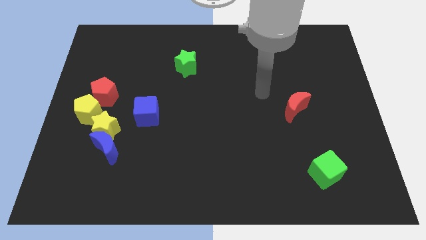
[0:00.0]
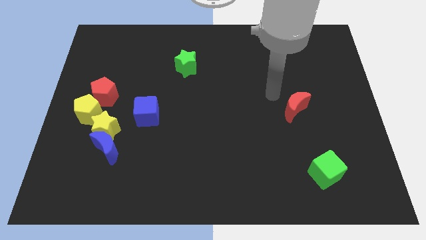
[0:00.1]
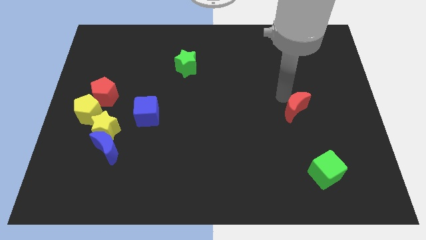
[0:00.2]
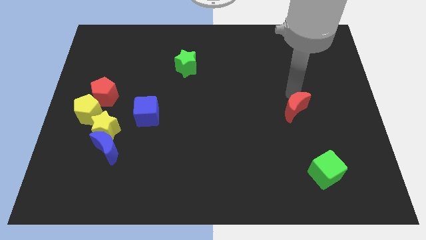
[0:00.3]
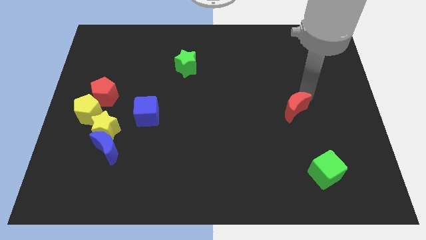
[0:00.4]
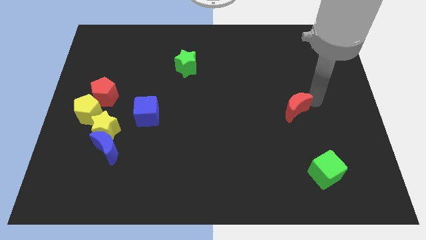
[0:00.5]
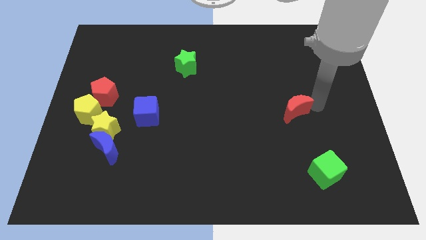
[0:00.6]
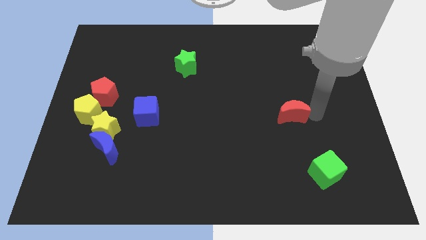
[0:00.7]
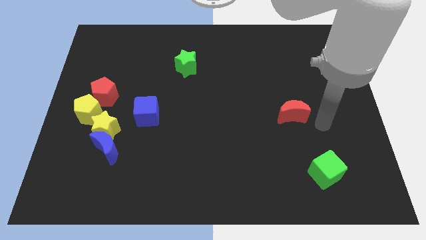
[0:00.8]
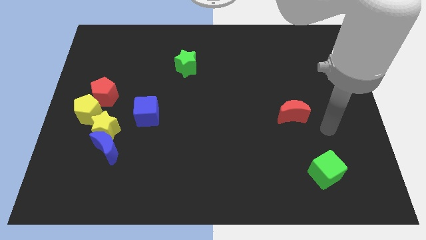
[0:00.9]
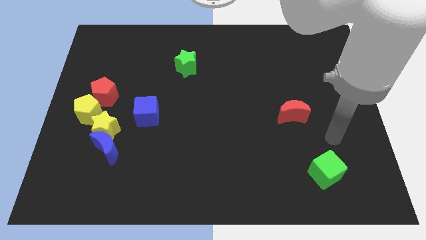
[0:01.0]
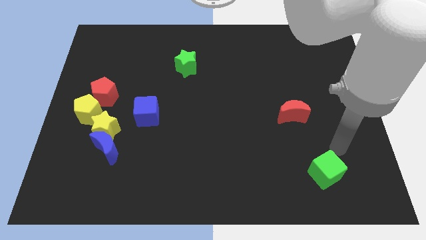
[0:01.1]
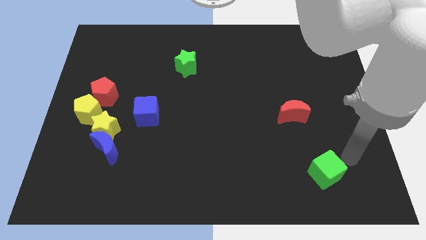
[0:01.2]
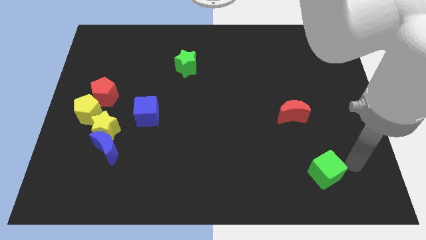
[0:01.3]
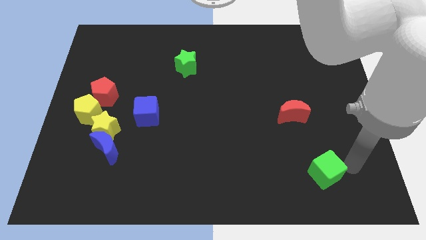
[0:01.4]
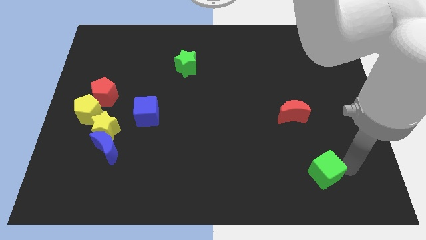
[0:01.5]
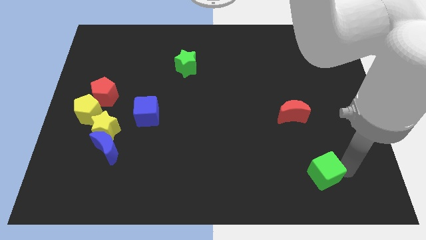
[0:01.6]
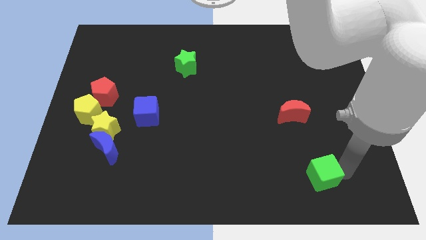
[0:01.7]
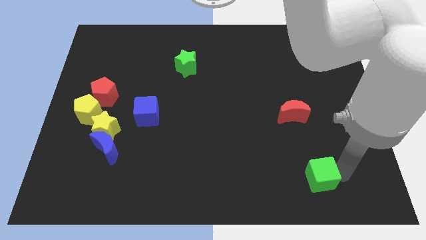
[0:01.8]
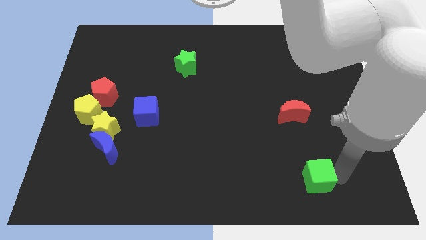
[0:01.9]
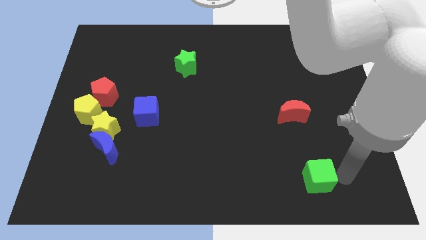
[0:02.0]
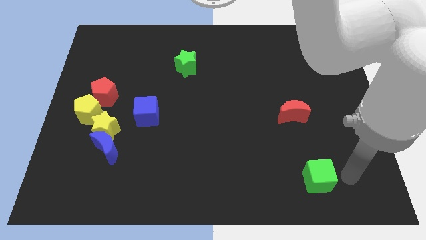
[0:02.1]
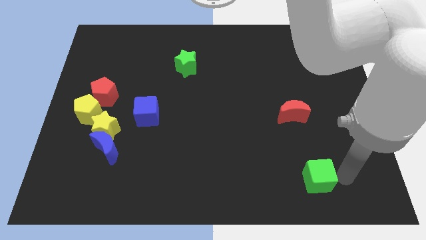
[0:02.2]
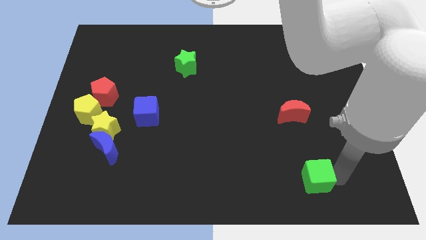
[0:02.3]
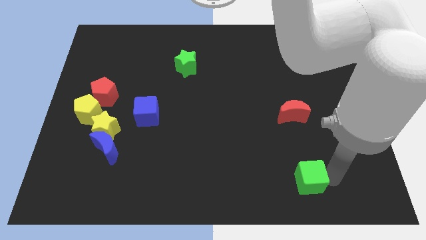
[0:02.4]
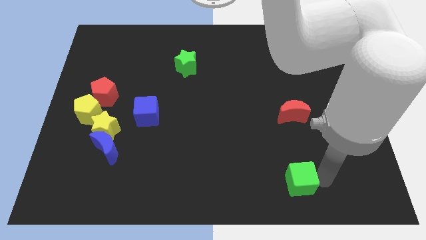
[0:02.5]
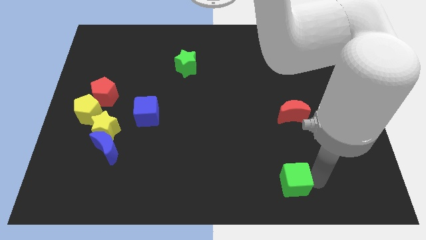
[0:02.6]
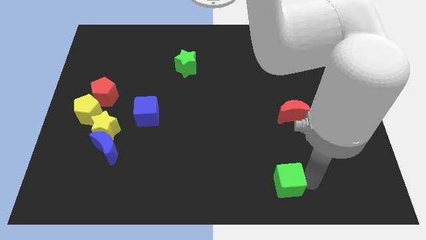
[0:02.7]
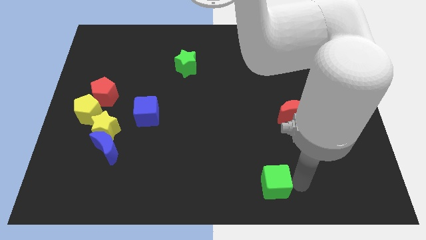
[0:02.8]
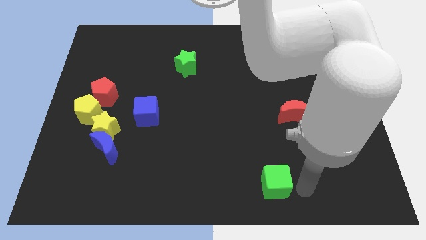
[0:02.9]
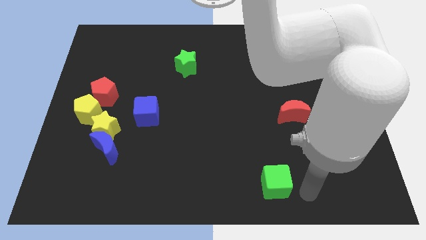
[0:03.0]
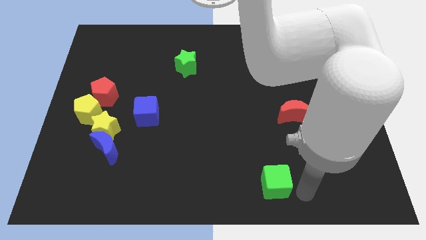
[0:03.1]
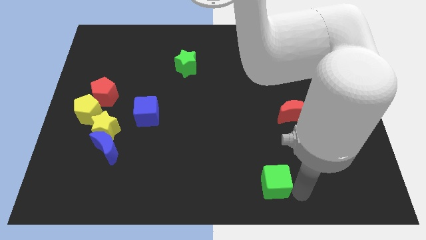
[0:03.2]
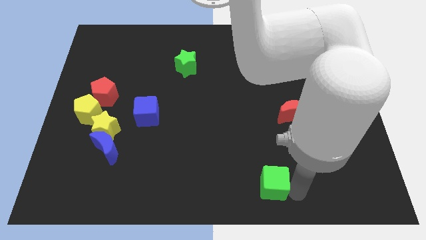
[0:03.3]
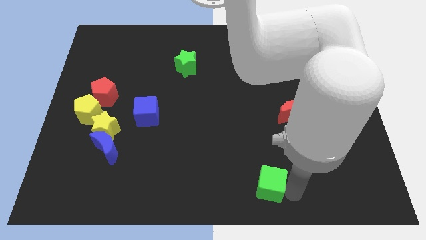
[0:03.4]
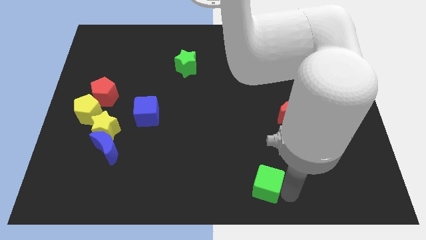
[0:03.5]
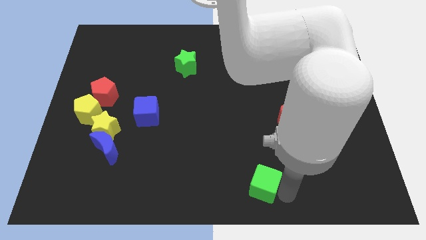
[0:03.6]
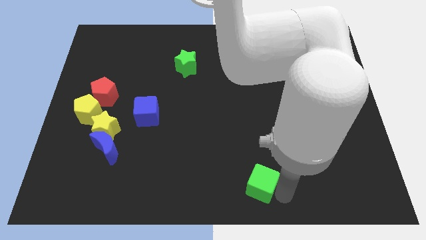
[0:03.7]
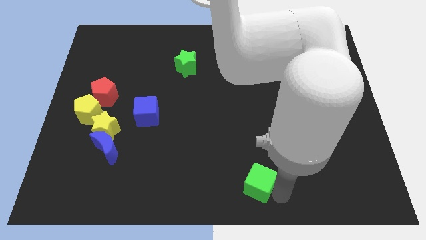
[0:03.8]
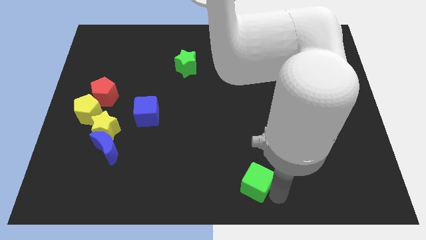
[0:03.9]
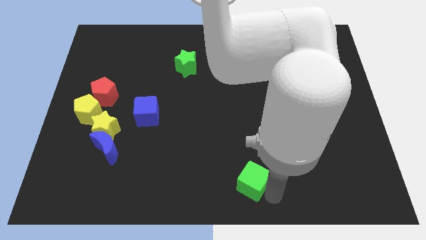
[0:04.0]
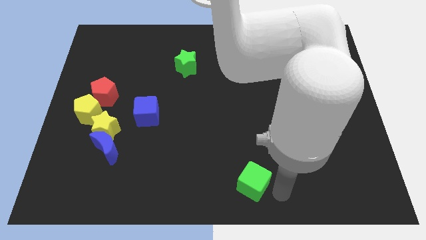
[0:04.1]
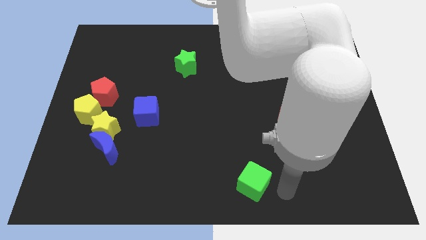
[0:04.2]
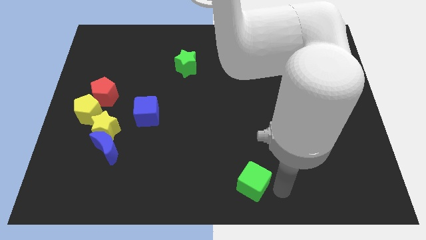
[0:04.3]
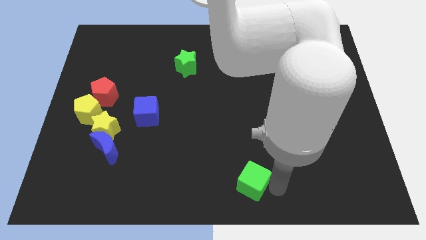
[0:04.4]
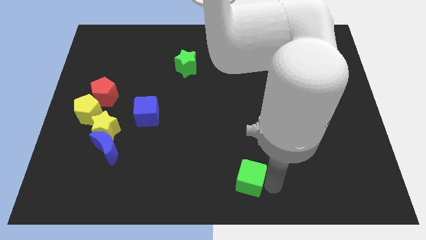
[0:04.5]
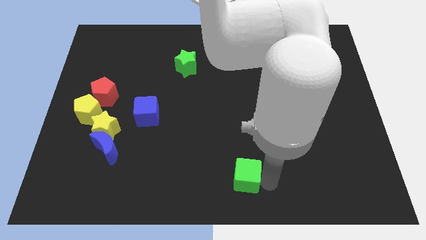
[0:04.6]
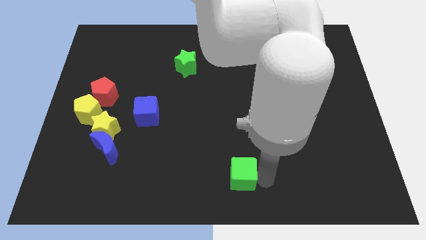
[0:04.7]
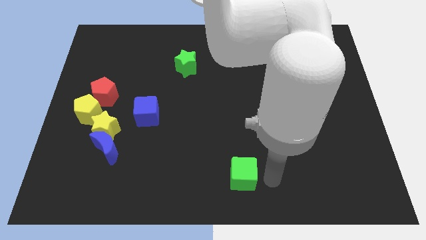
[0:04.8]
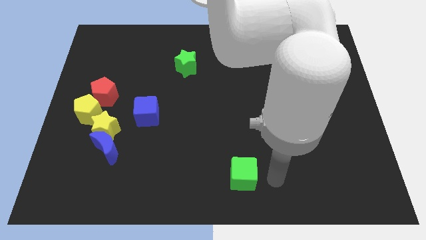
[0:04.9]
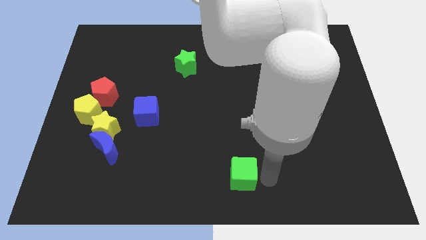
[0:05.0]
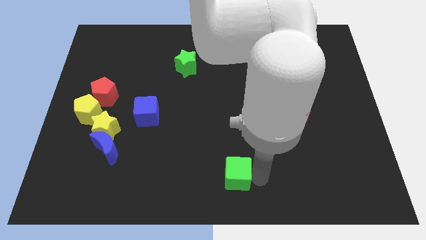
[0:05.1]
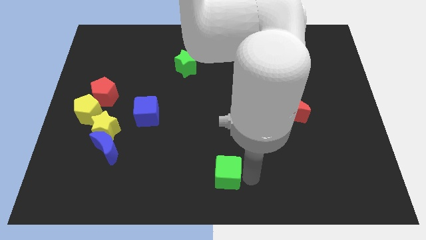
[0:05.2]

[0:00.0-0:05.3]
slide the green cube to the left

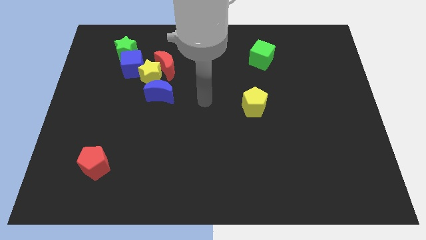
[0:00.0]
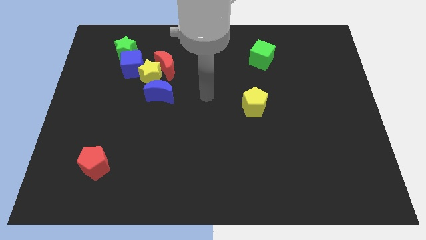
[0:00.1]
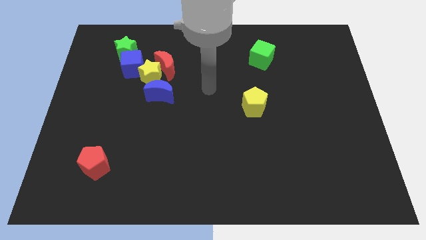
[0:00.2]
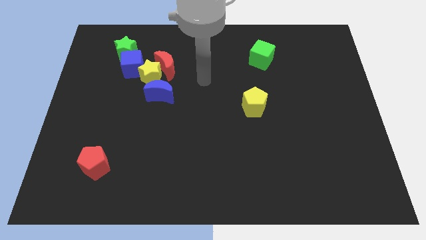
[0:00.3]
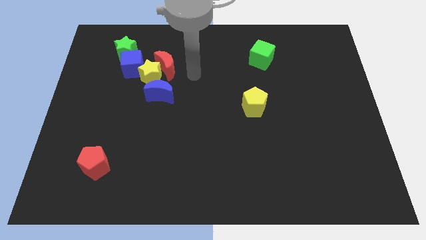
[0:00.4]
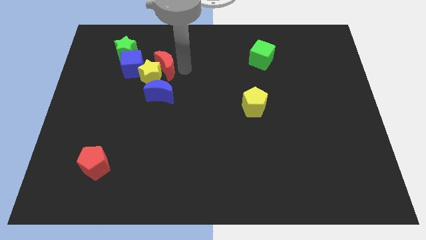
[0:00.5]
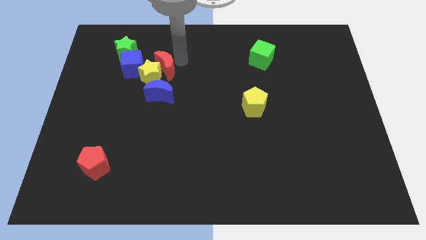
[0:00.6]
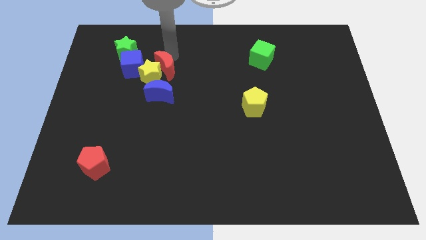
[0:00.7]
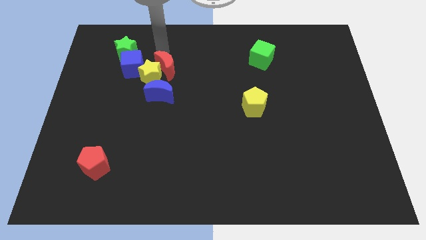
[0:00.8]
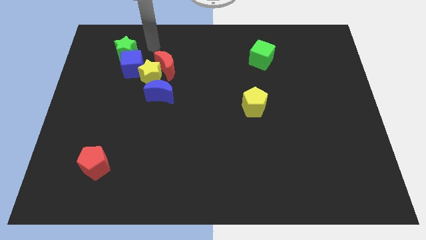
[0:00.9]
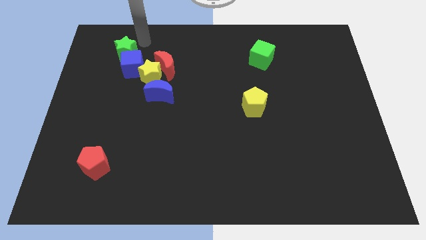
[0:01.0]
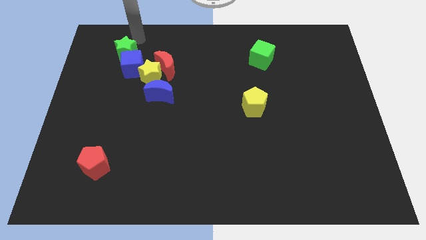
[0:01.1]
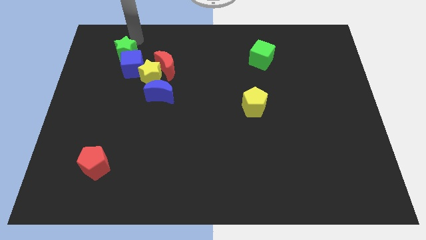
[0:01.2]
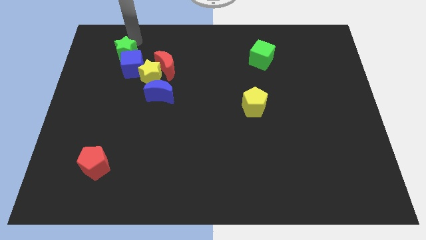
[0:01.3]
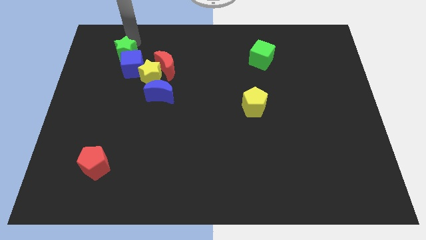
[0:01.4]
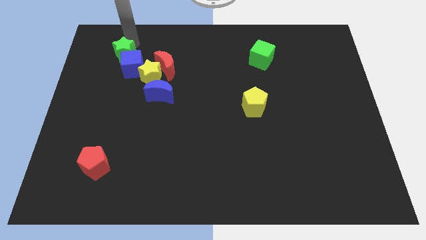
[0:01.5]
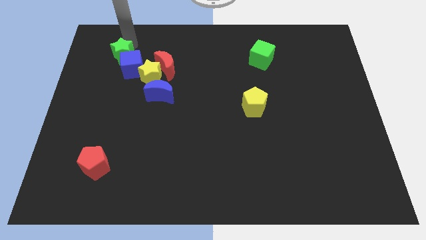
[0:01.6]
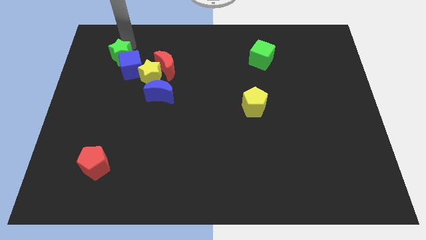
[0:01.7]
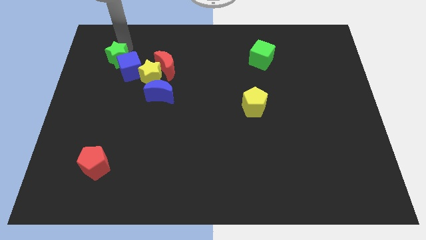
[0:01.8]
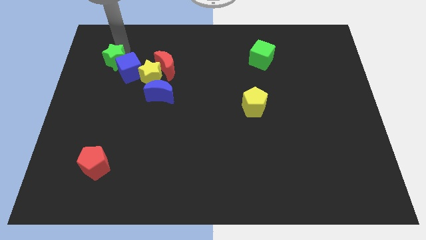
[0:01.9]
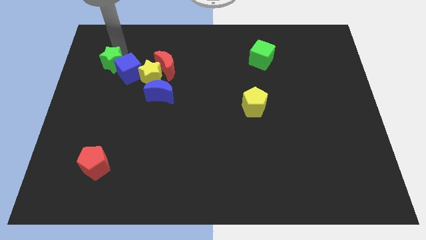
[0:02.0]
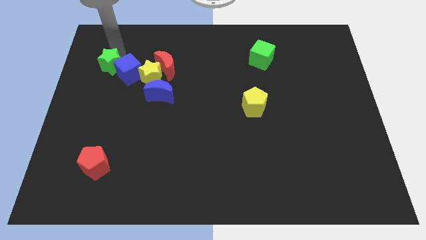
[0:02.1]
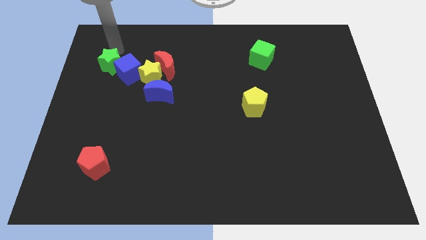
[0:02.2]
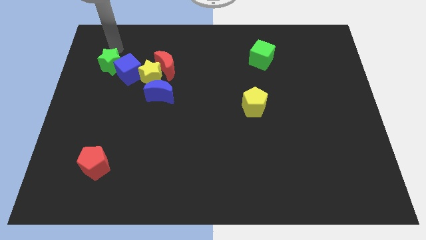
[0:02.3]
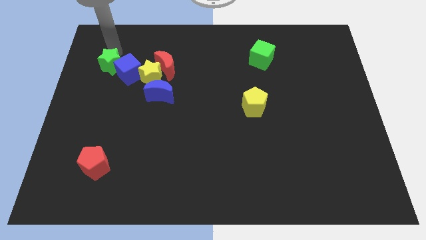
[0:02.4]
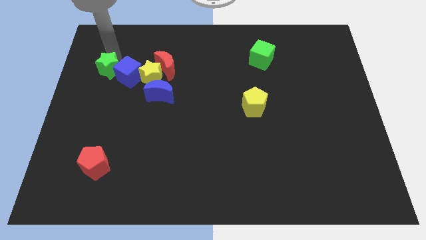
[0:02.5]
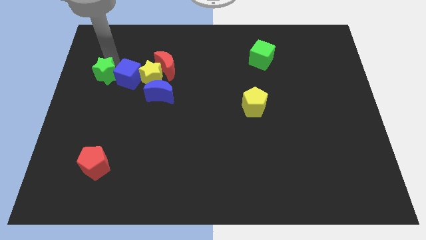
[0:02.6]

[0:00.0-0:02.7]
slightly move the green star down
